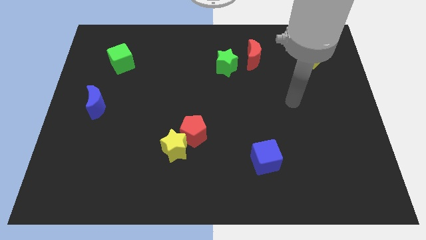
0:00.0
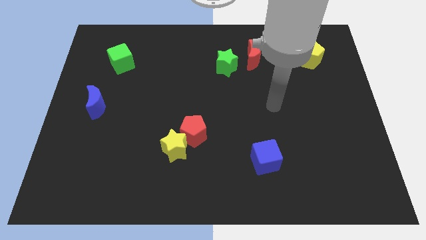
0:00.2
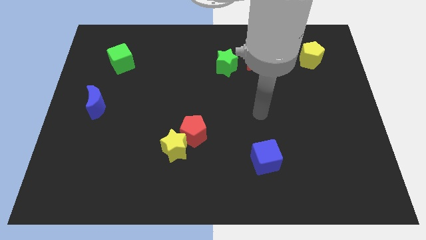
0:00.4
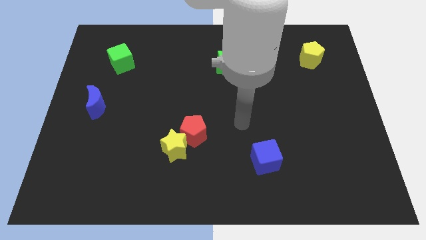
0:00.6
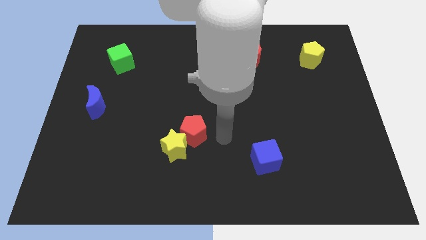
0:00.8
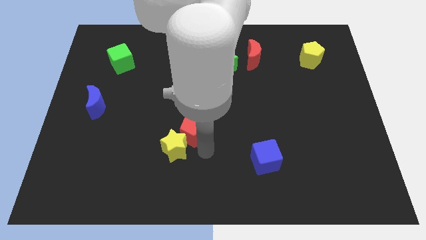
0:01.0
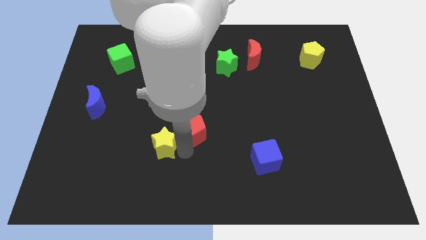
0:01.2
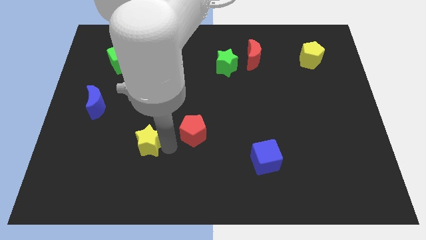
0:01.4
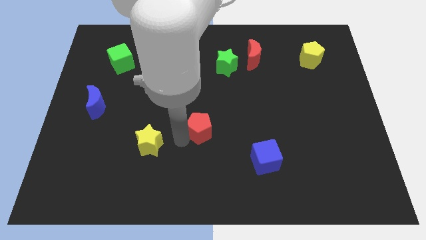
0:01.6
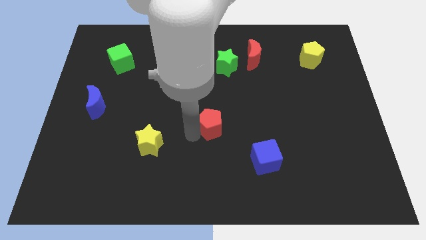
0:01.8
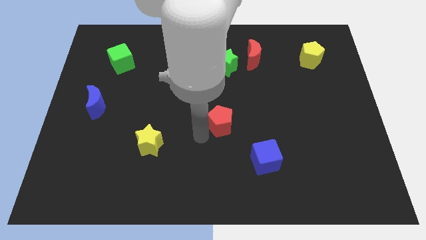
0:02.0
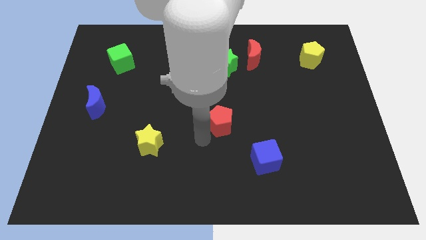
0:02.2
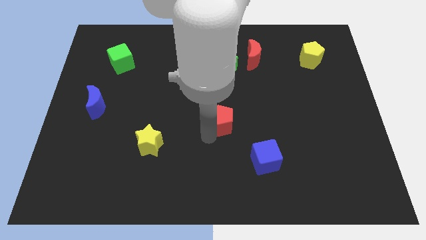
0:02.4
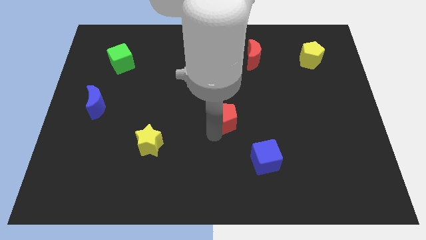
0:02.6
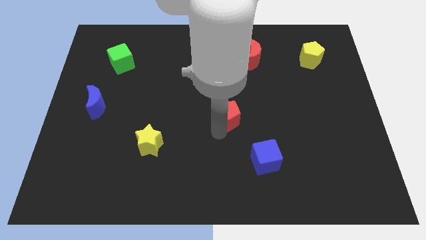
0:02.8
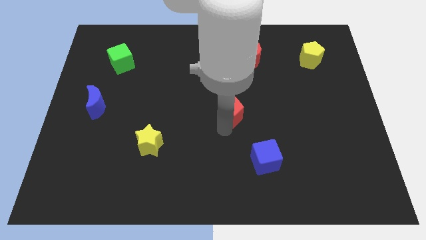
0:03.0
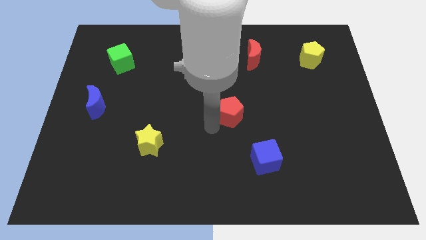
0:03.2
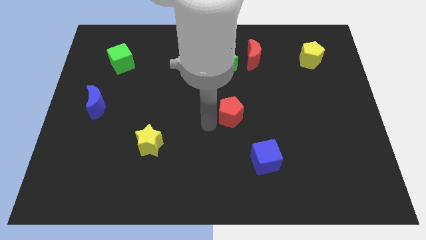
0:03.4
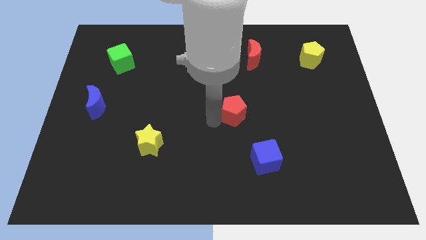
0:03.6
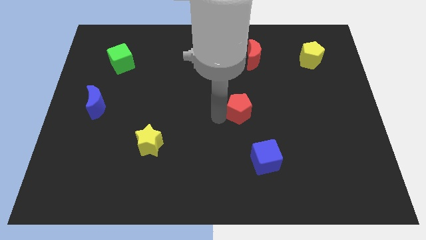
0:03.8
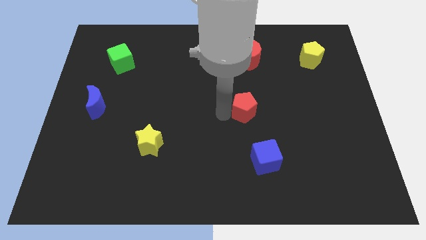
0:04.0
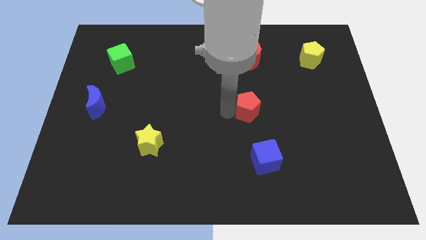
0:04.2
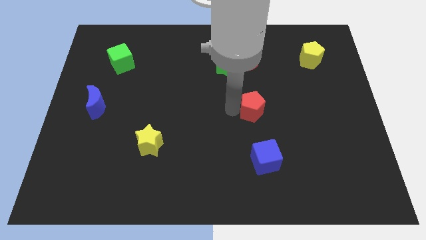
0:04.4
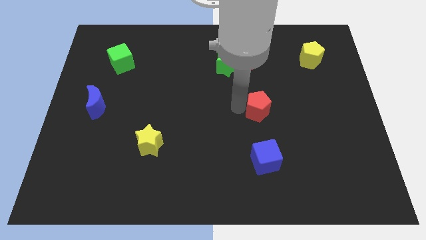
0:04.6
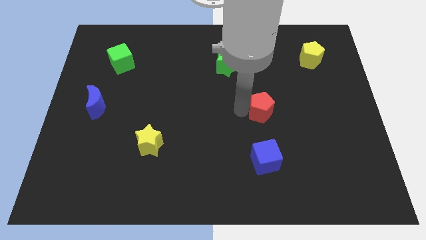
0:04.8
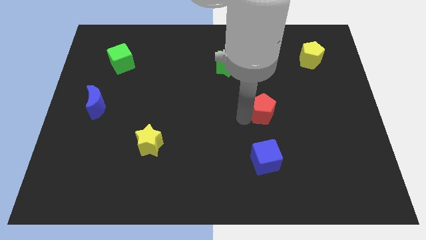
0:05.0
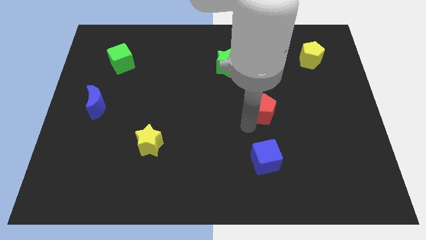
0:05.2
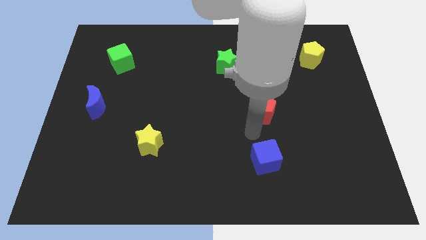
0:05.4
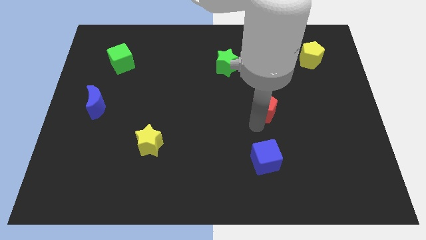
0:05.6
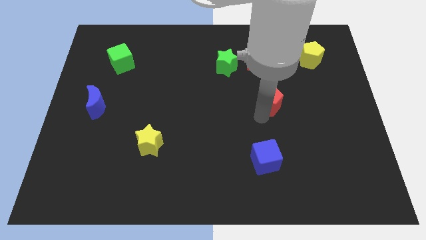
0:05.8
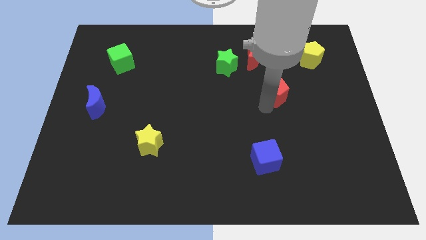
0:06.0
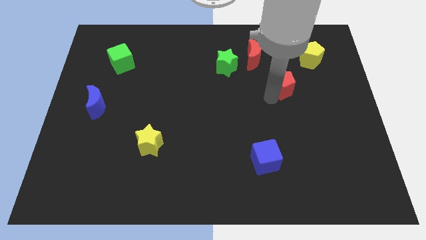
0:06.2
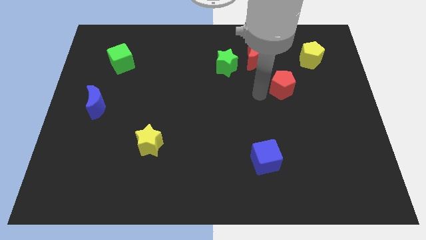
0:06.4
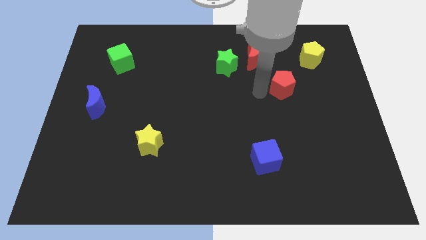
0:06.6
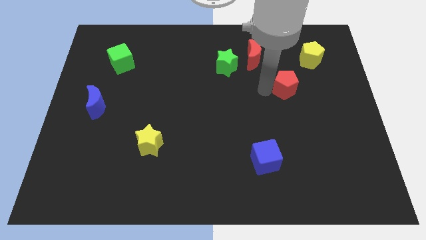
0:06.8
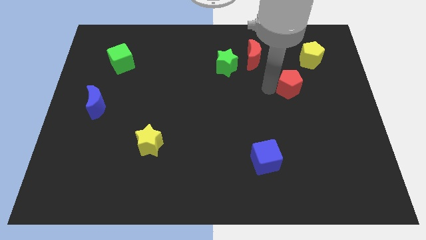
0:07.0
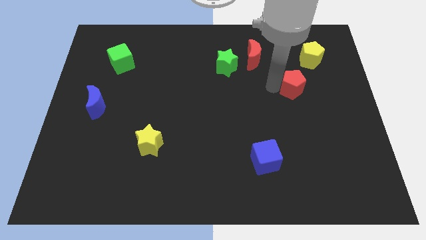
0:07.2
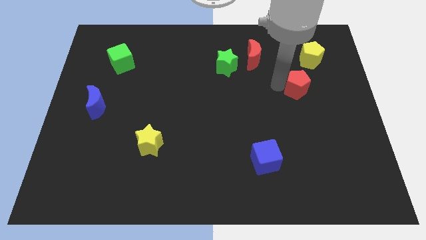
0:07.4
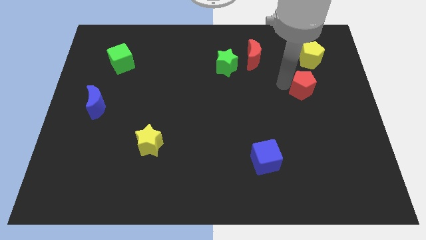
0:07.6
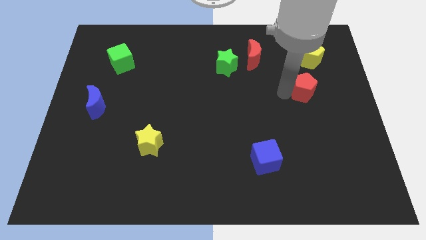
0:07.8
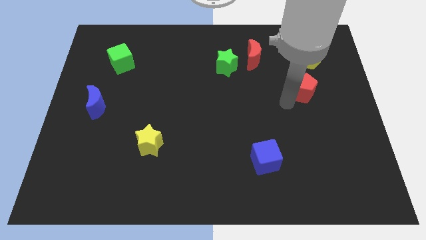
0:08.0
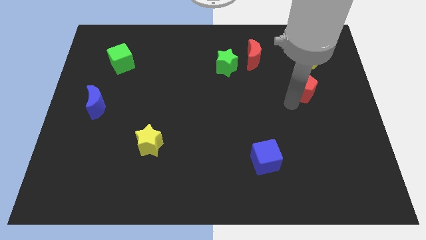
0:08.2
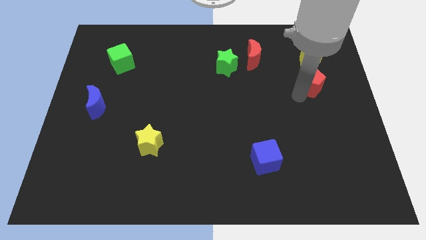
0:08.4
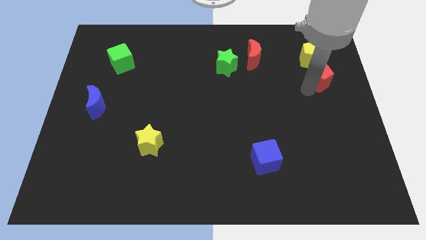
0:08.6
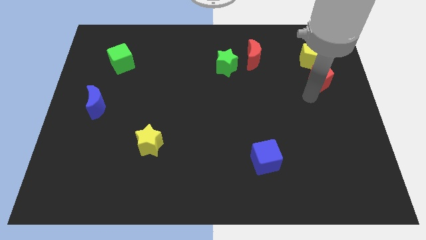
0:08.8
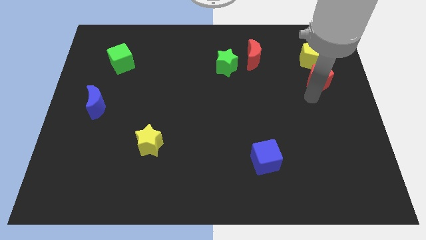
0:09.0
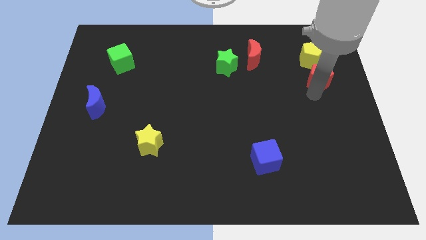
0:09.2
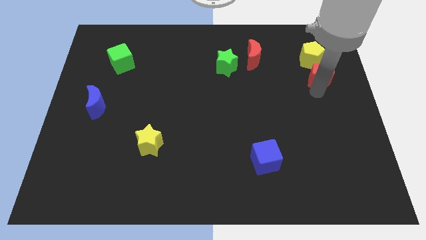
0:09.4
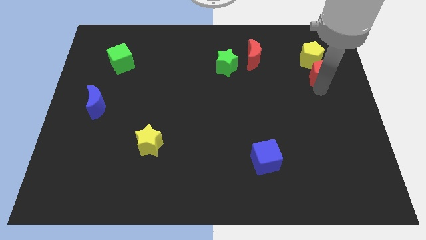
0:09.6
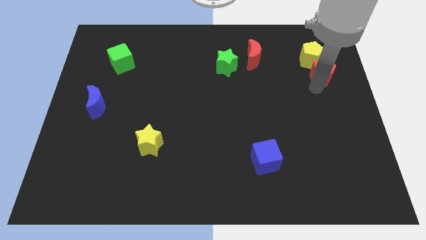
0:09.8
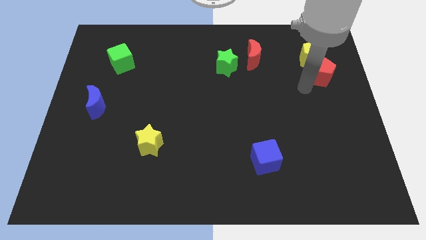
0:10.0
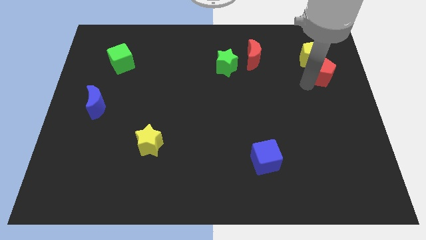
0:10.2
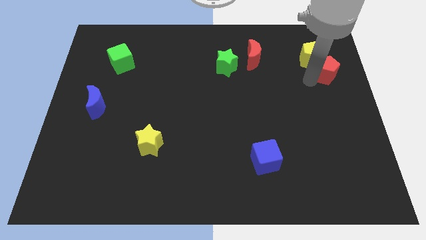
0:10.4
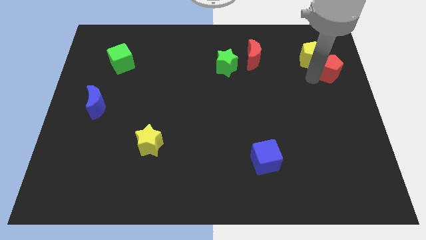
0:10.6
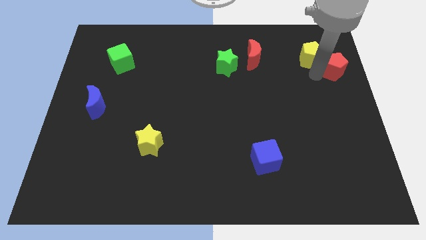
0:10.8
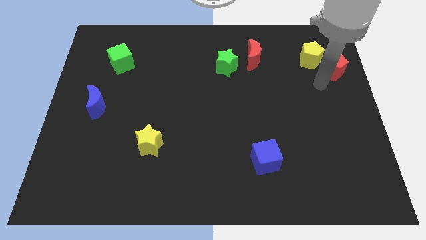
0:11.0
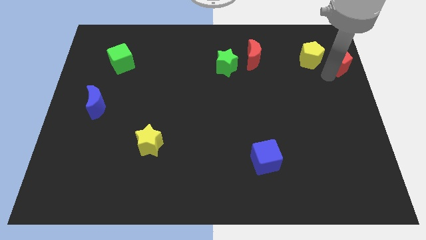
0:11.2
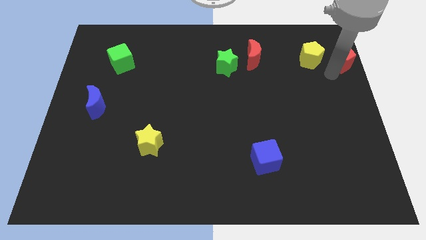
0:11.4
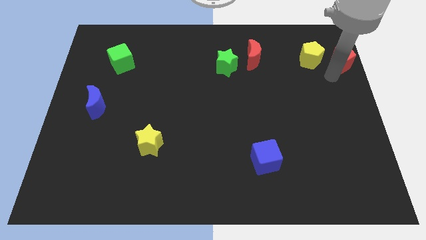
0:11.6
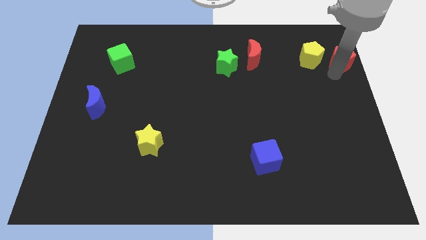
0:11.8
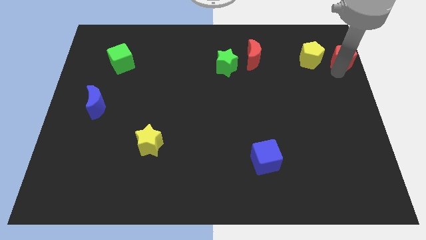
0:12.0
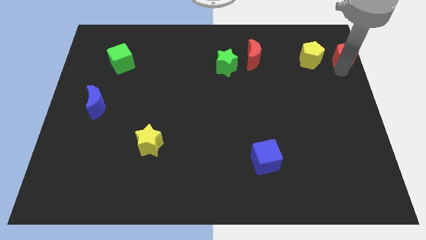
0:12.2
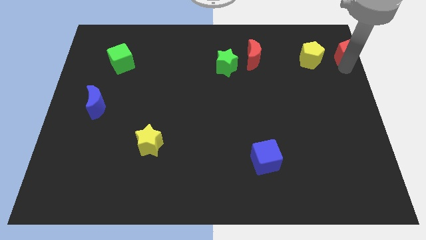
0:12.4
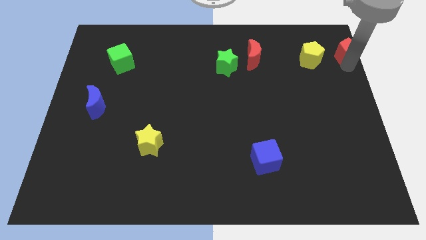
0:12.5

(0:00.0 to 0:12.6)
put the red pentagon to the upper right corner
